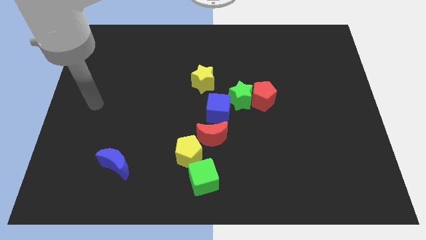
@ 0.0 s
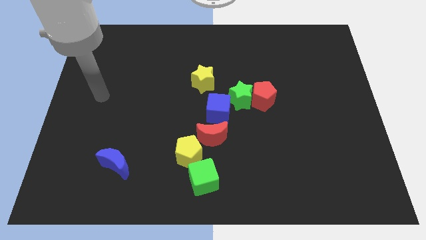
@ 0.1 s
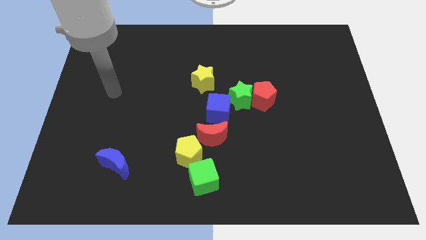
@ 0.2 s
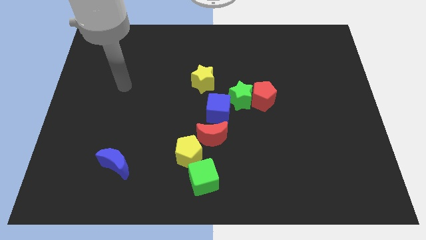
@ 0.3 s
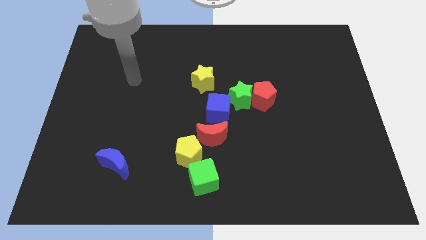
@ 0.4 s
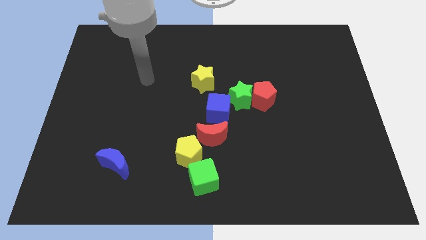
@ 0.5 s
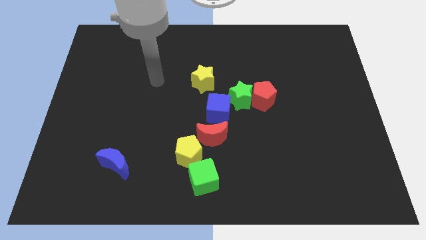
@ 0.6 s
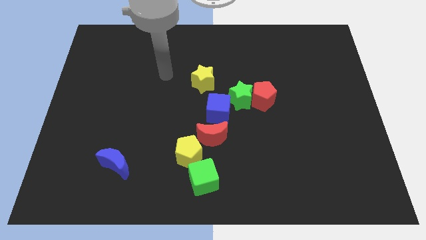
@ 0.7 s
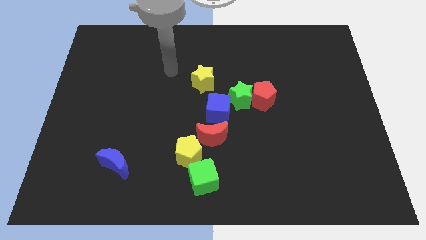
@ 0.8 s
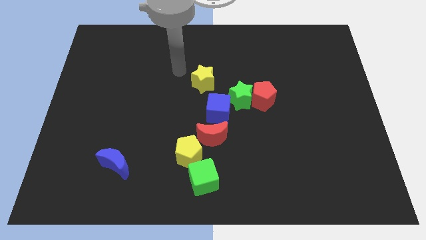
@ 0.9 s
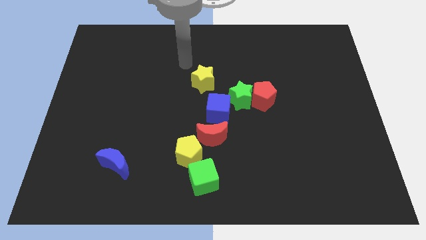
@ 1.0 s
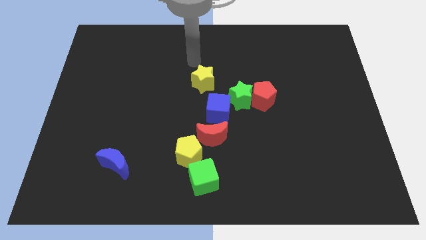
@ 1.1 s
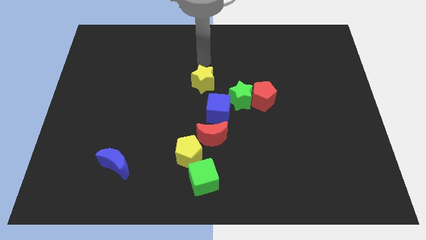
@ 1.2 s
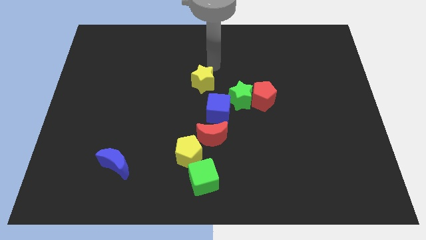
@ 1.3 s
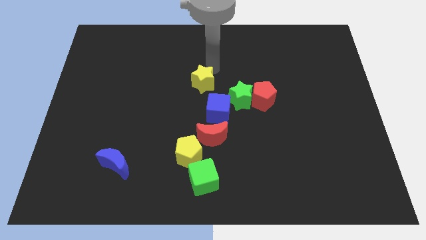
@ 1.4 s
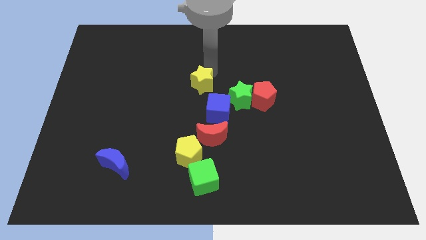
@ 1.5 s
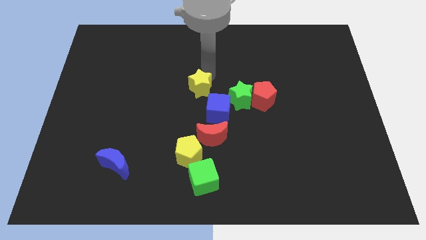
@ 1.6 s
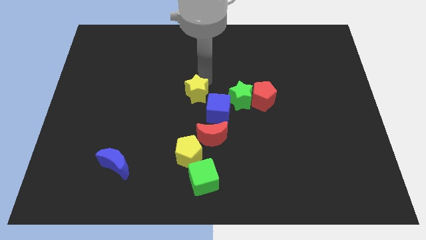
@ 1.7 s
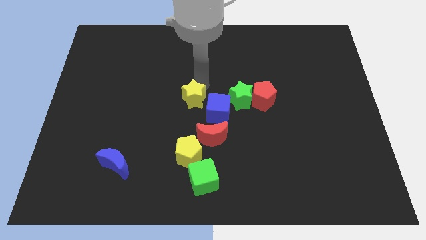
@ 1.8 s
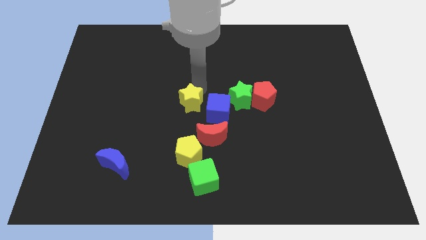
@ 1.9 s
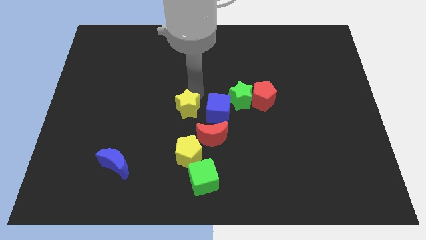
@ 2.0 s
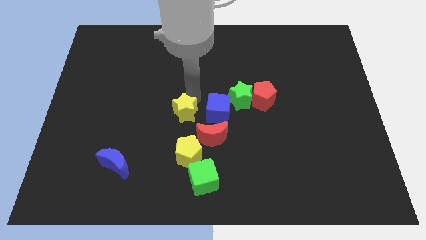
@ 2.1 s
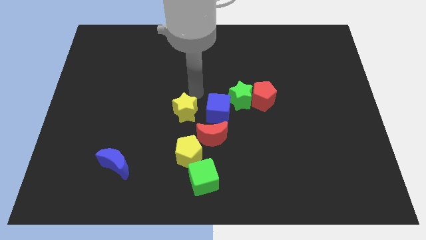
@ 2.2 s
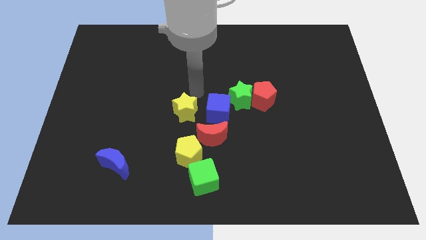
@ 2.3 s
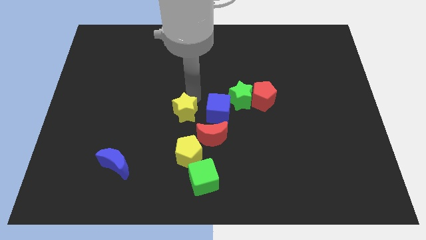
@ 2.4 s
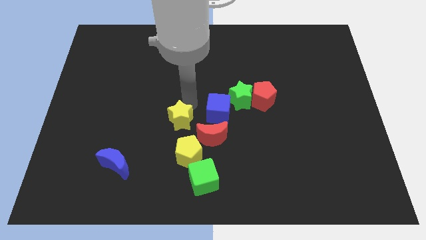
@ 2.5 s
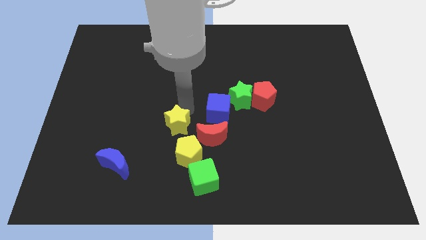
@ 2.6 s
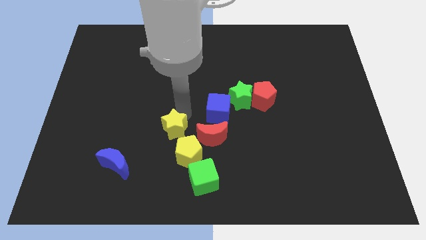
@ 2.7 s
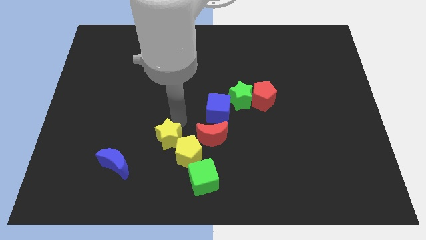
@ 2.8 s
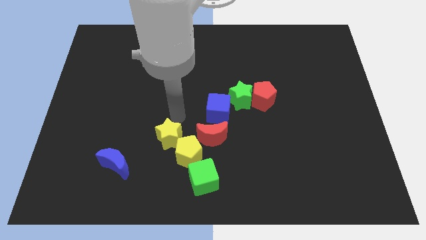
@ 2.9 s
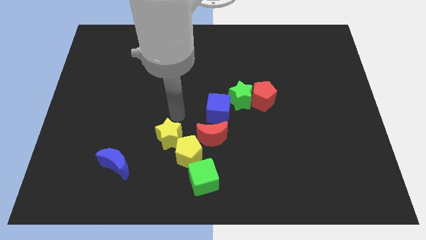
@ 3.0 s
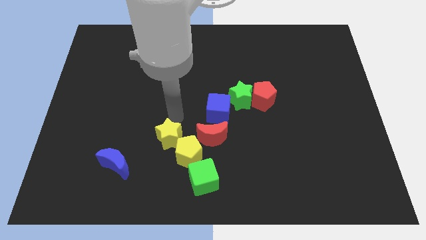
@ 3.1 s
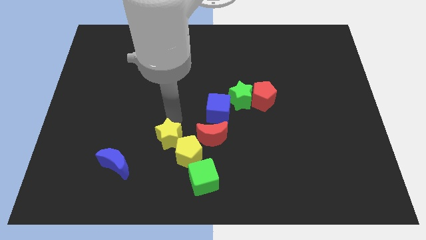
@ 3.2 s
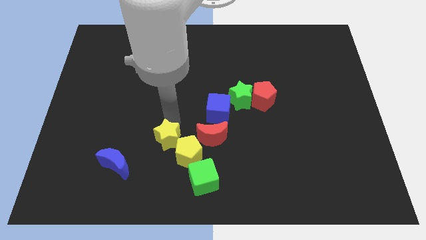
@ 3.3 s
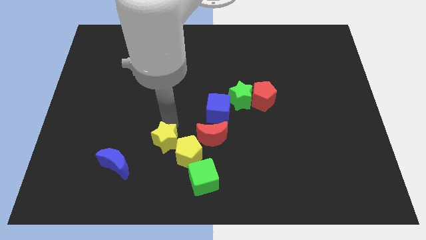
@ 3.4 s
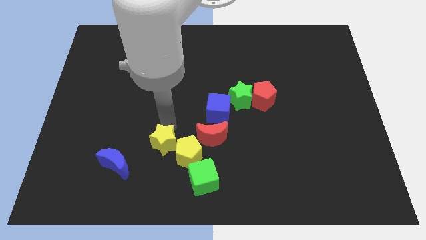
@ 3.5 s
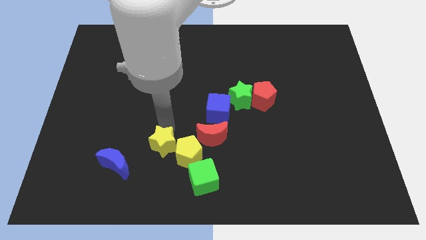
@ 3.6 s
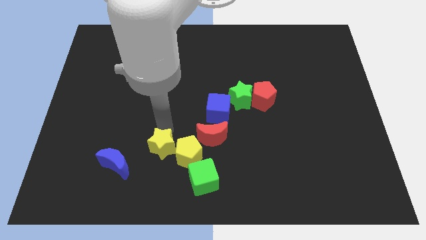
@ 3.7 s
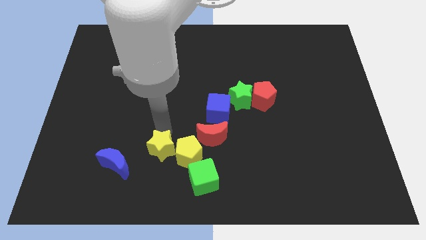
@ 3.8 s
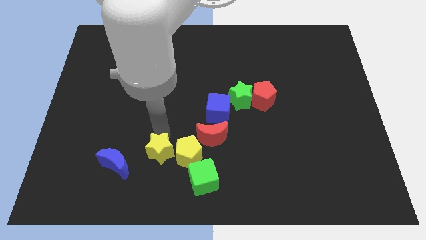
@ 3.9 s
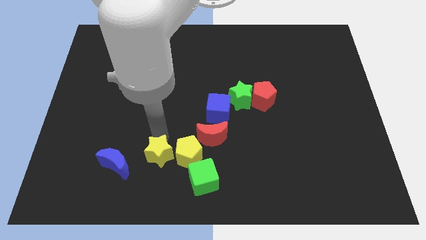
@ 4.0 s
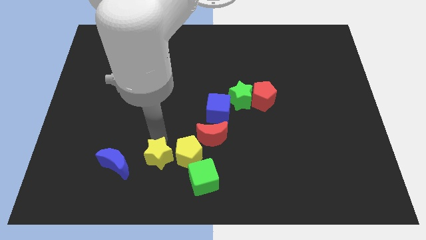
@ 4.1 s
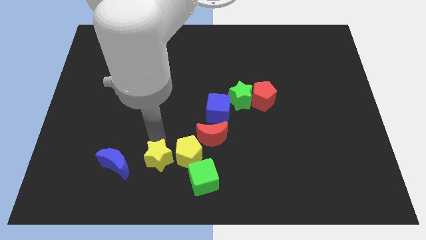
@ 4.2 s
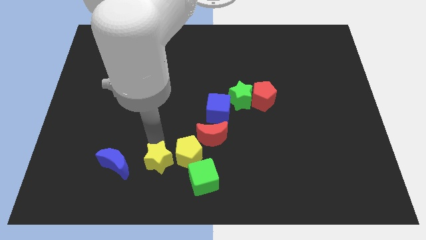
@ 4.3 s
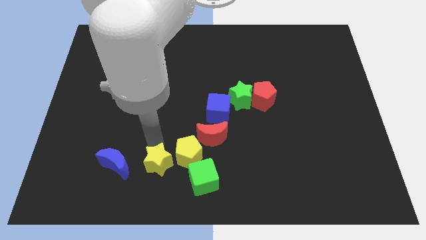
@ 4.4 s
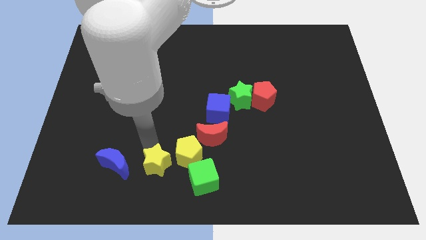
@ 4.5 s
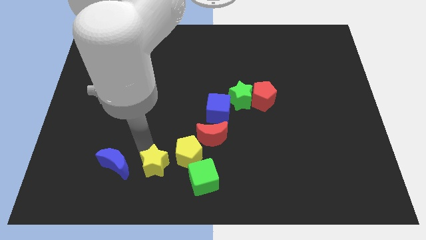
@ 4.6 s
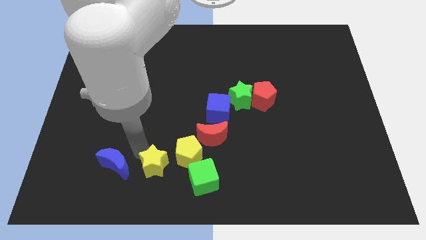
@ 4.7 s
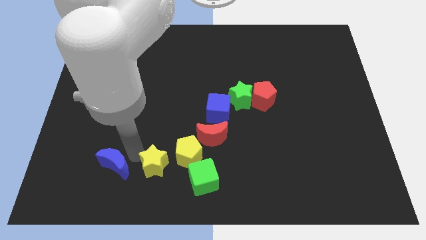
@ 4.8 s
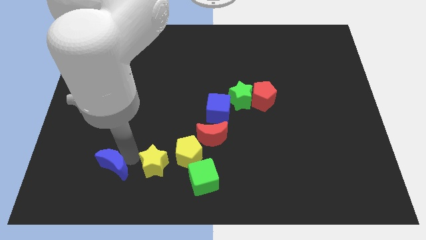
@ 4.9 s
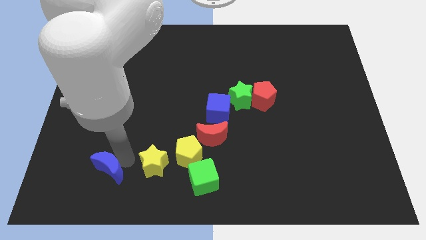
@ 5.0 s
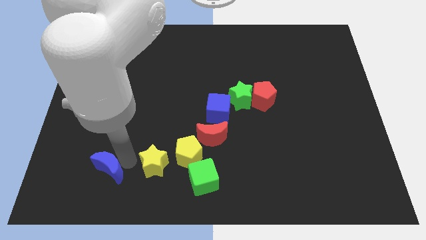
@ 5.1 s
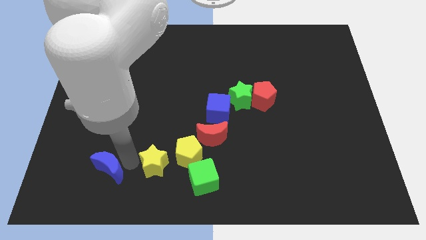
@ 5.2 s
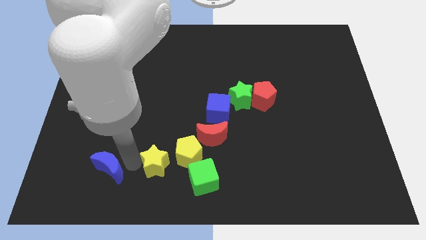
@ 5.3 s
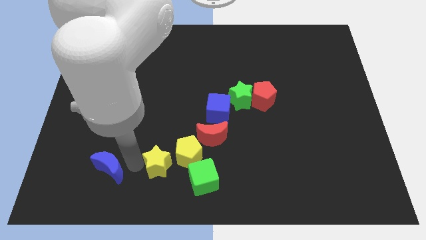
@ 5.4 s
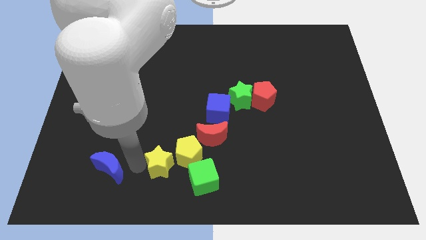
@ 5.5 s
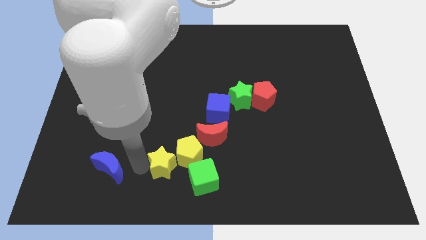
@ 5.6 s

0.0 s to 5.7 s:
put the yellow star to the bottom left side of the red moon

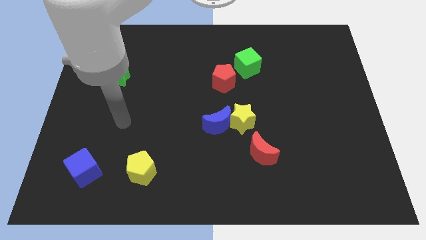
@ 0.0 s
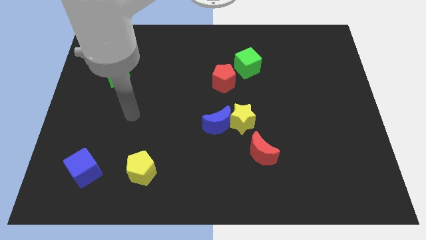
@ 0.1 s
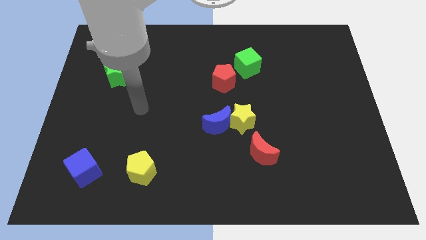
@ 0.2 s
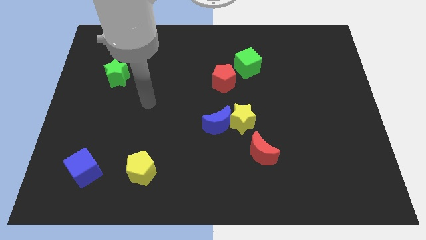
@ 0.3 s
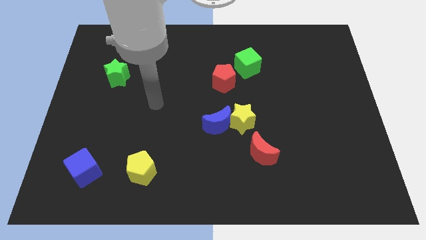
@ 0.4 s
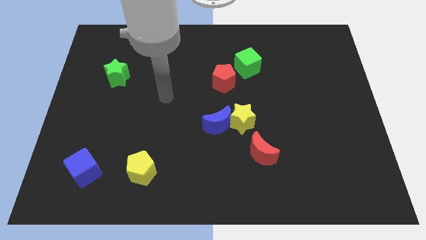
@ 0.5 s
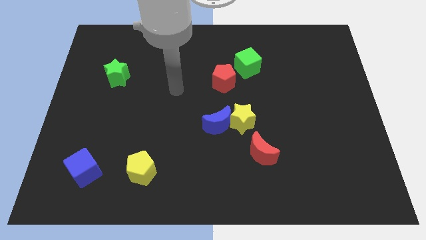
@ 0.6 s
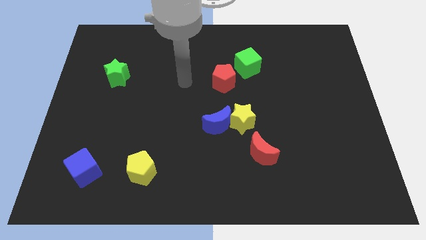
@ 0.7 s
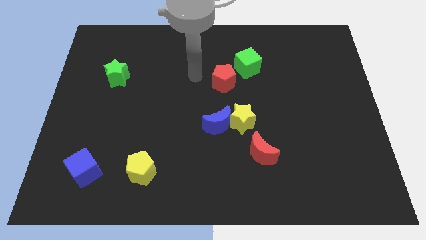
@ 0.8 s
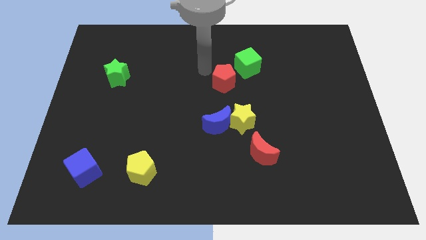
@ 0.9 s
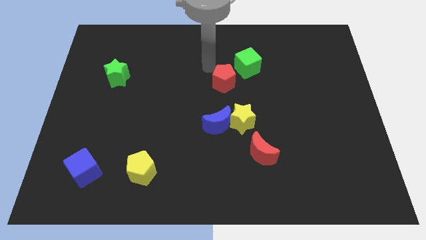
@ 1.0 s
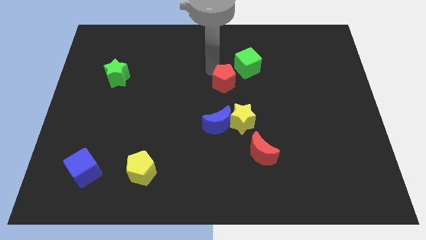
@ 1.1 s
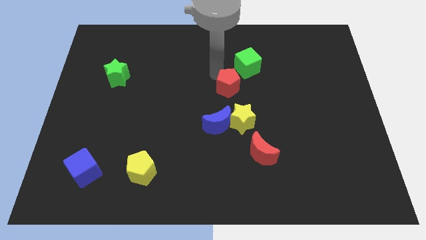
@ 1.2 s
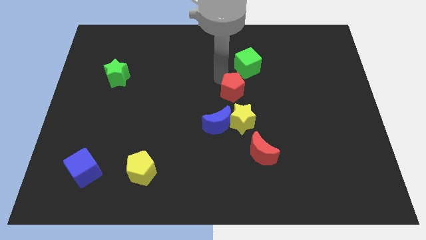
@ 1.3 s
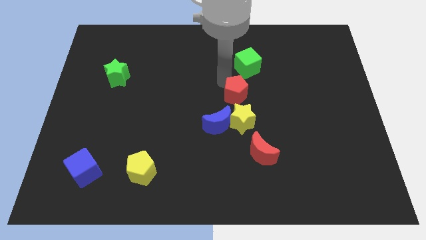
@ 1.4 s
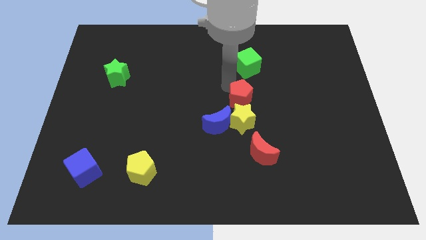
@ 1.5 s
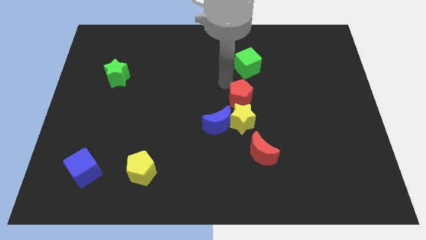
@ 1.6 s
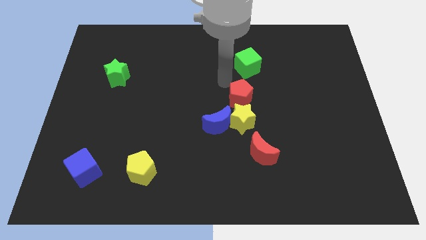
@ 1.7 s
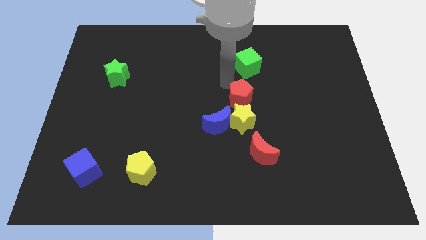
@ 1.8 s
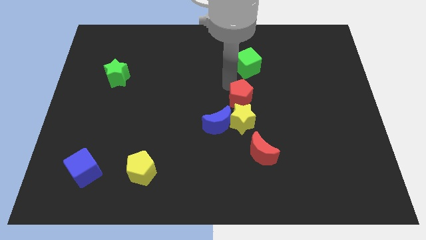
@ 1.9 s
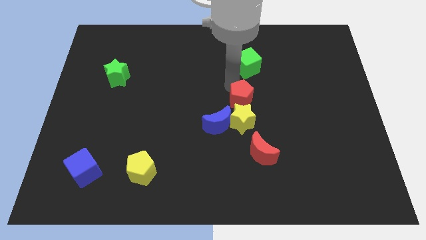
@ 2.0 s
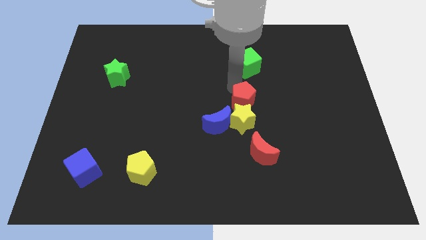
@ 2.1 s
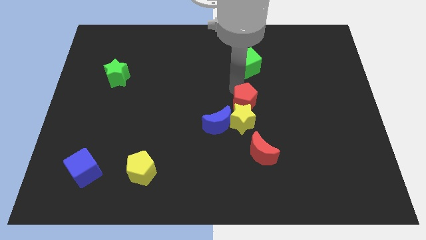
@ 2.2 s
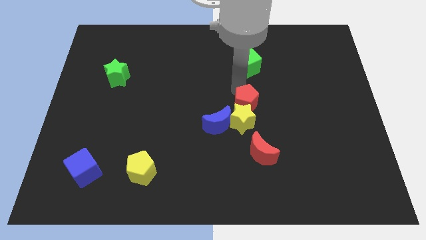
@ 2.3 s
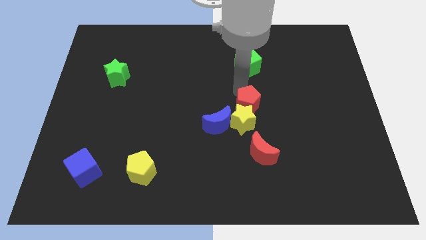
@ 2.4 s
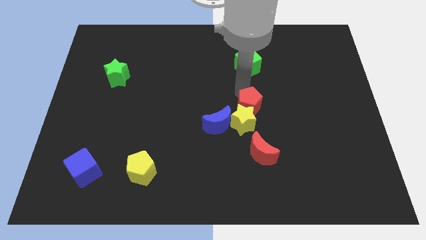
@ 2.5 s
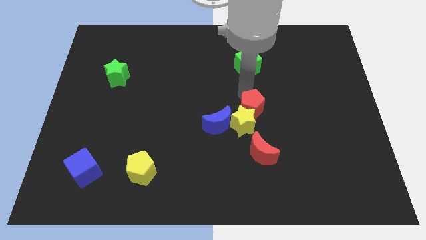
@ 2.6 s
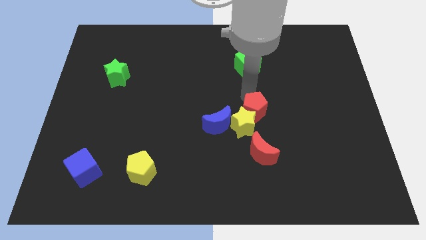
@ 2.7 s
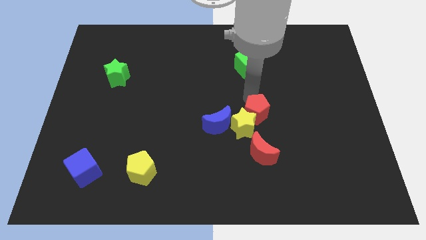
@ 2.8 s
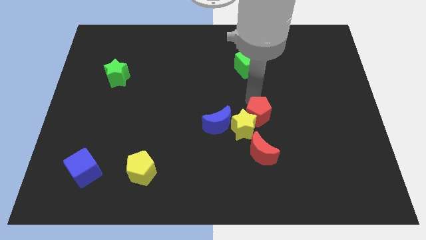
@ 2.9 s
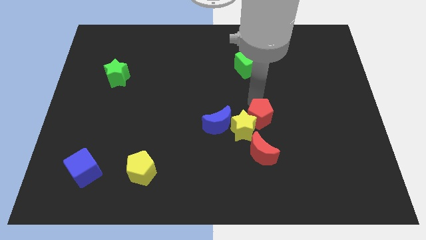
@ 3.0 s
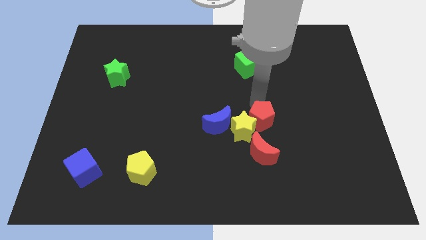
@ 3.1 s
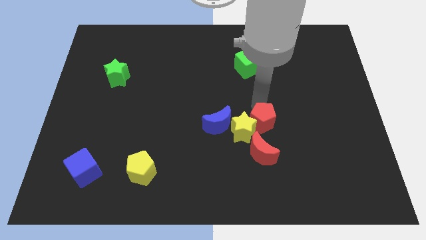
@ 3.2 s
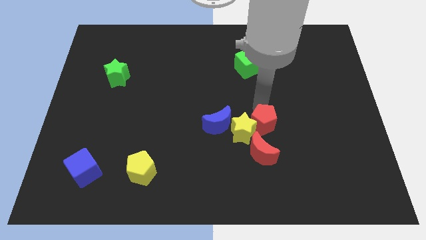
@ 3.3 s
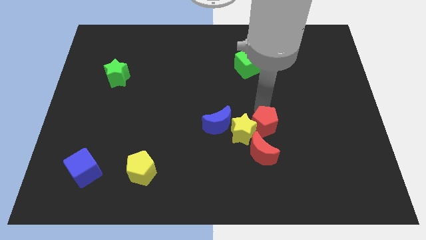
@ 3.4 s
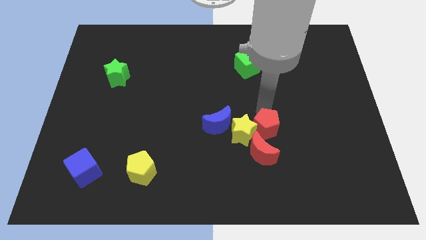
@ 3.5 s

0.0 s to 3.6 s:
slide the red pentagon diagonally down and to the right of the yellow star
